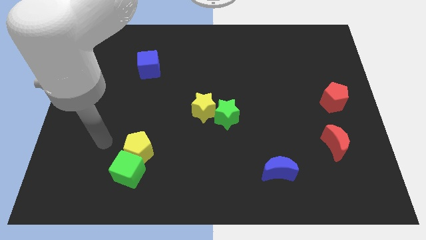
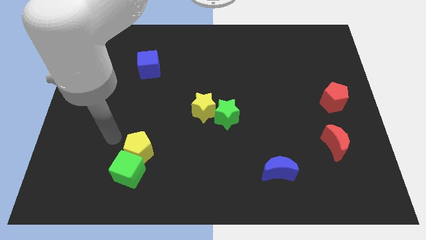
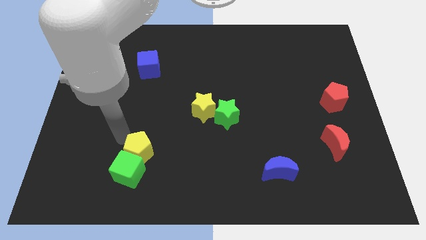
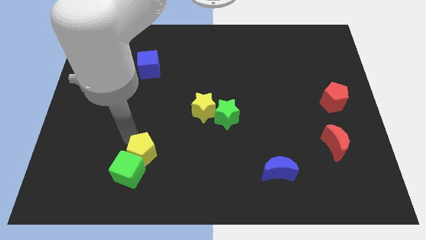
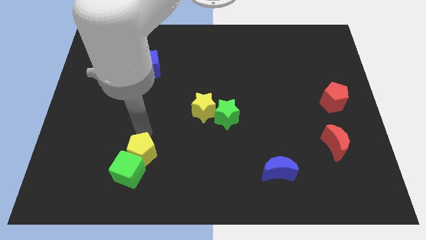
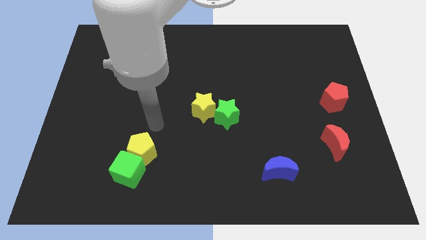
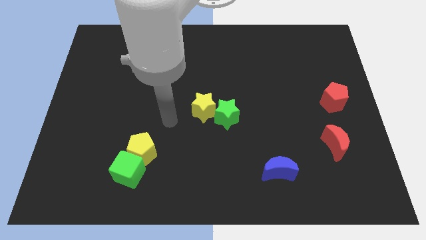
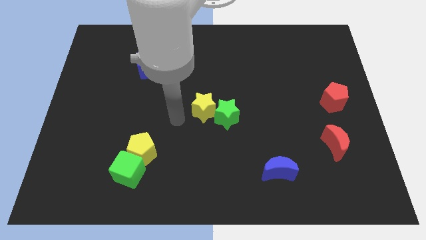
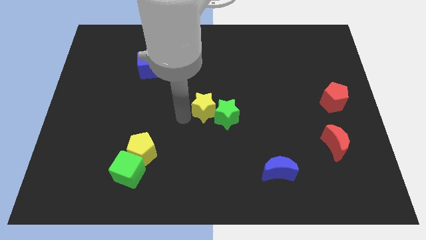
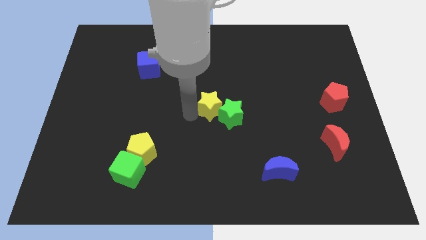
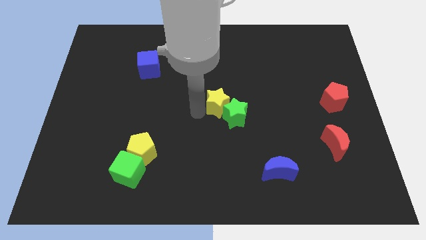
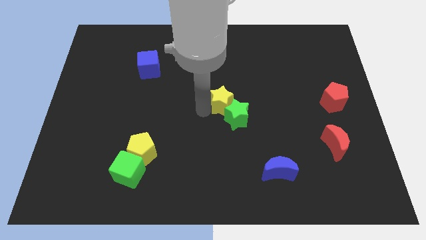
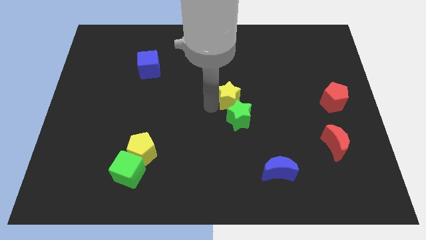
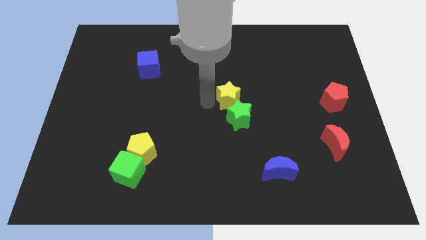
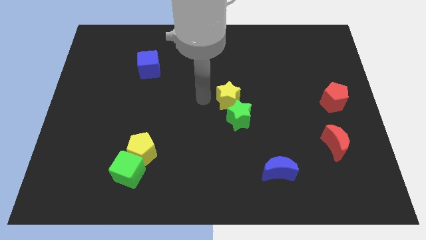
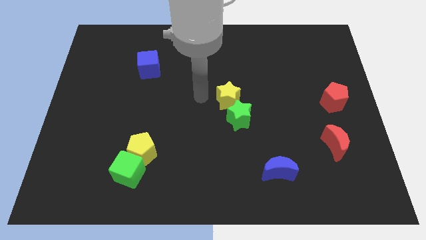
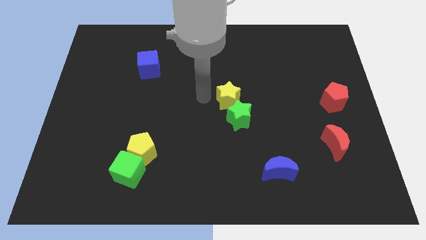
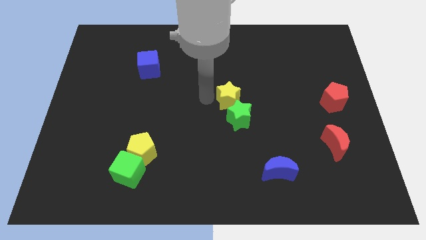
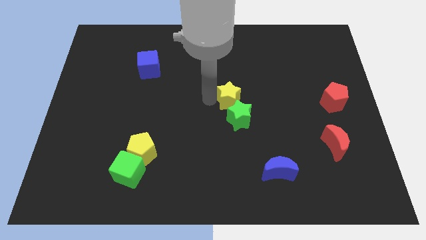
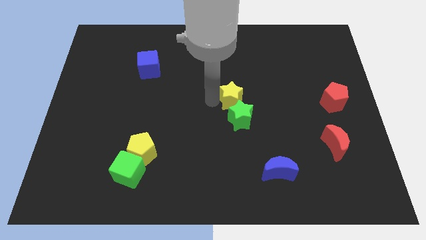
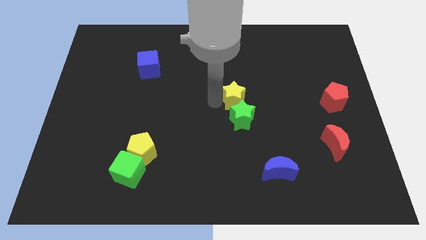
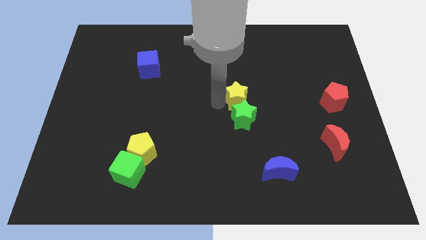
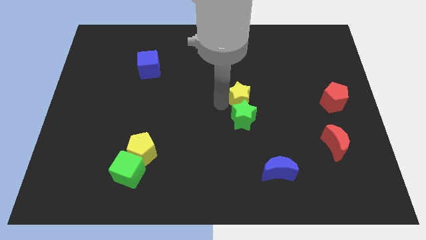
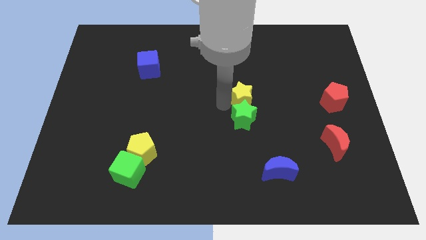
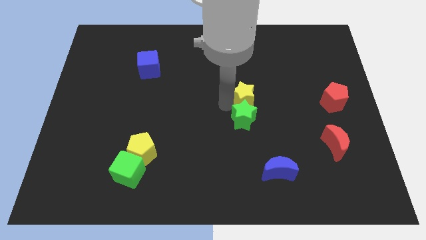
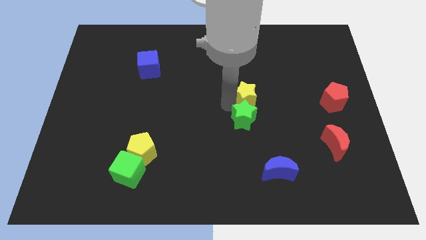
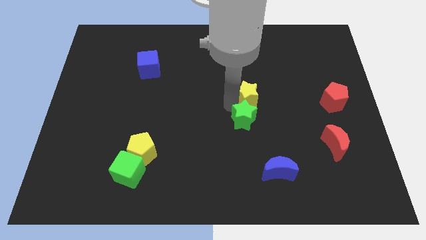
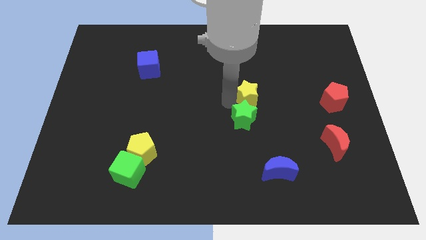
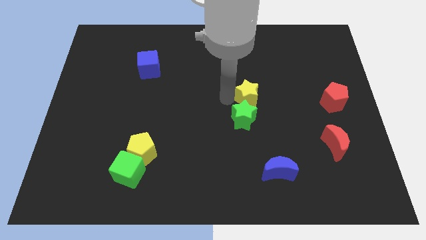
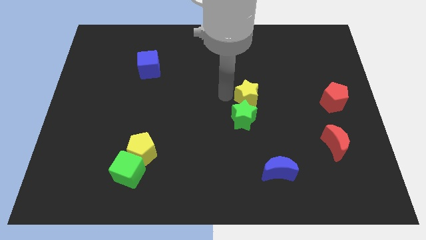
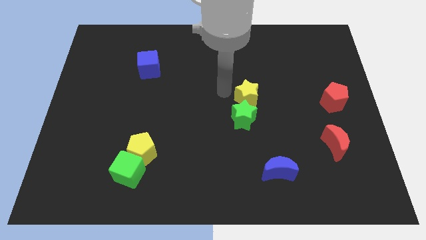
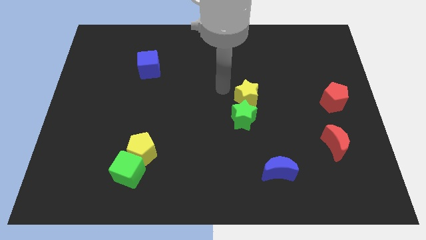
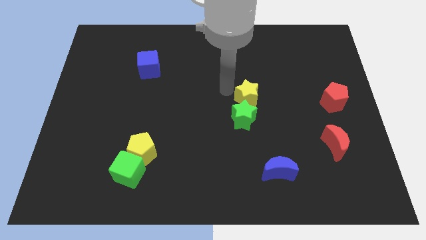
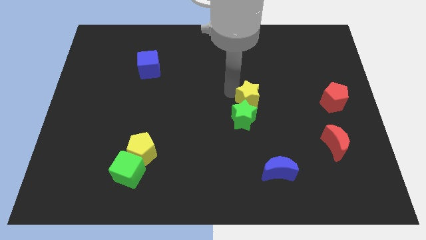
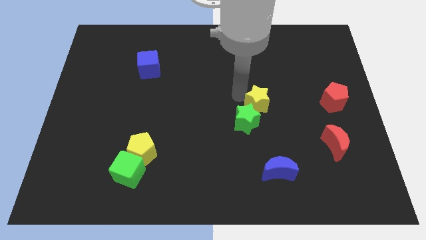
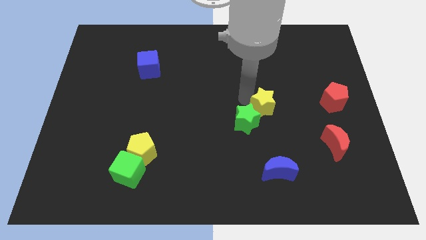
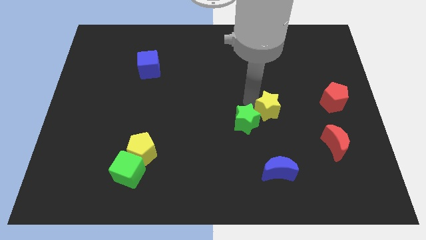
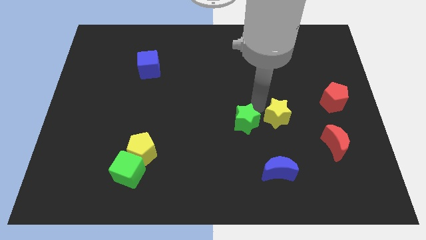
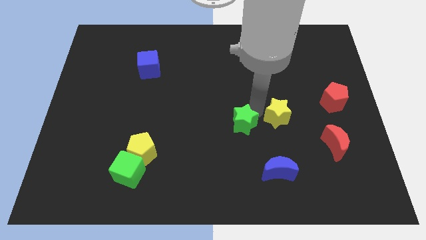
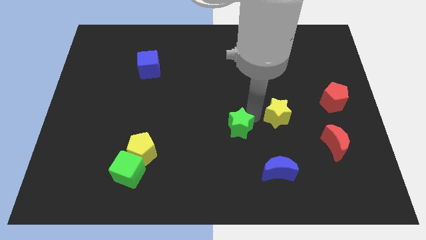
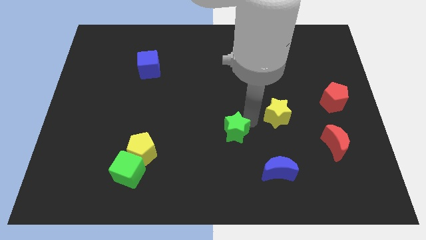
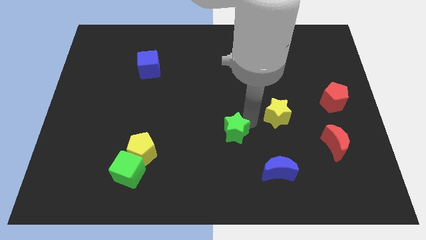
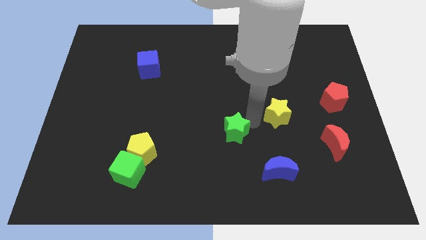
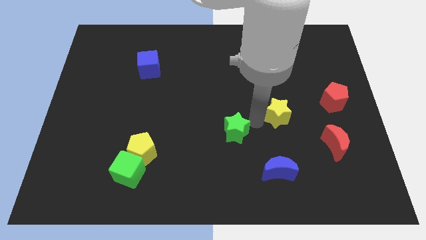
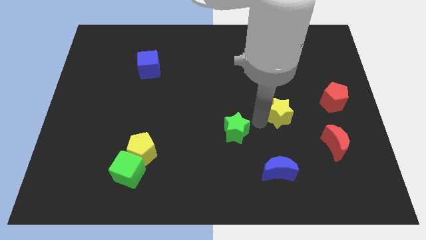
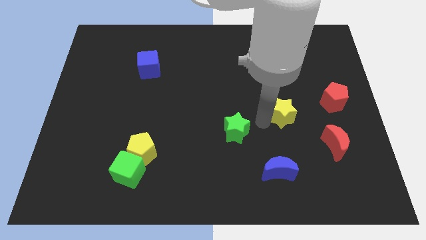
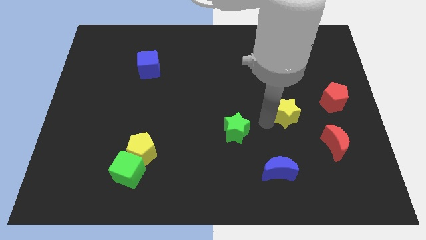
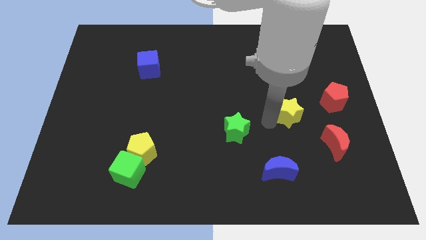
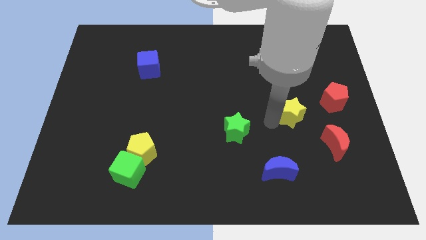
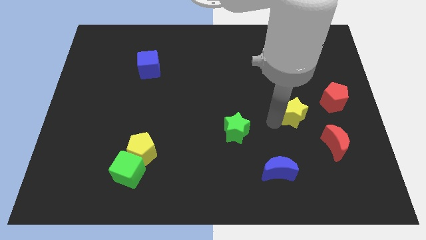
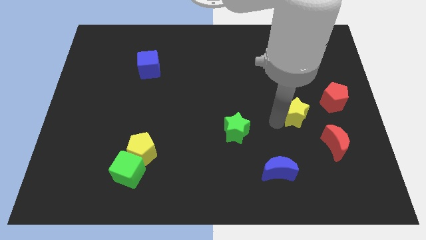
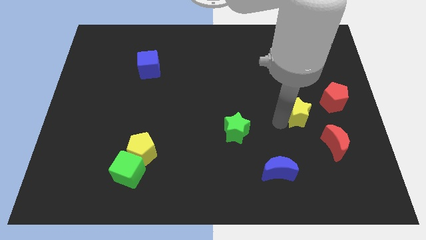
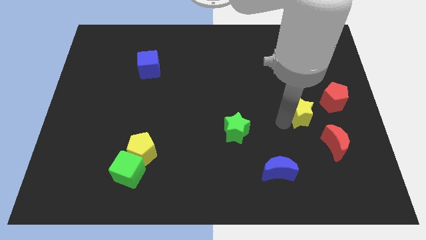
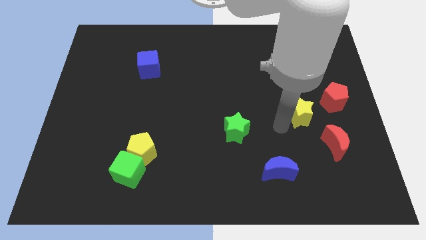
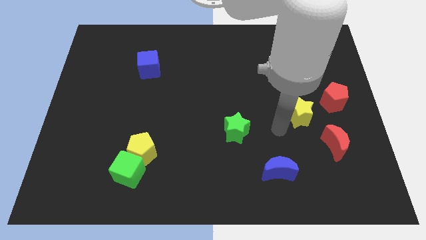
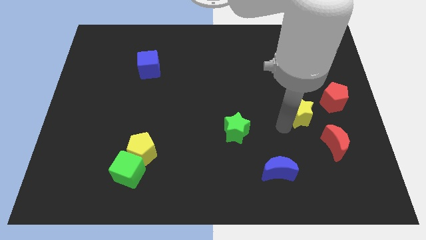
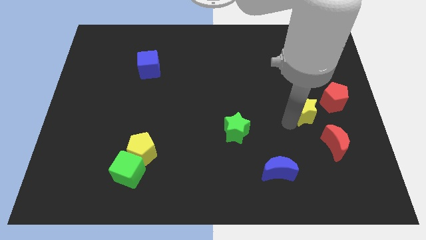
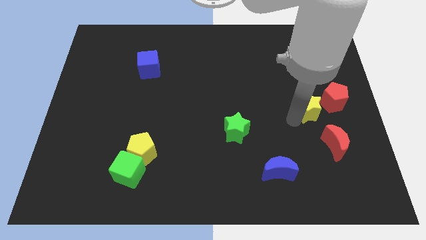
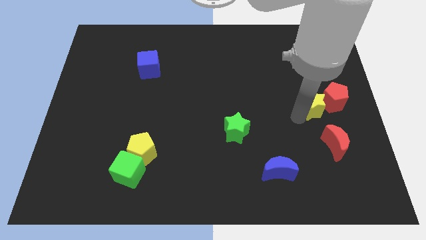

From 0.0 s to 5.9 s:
push the yellow star towards the red pentagon

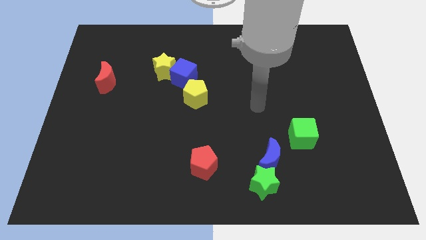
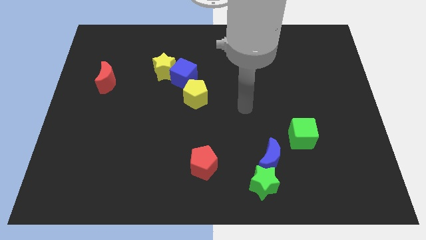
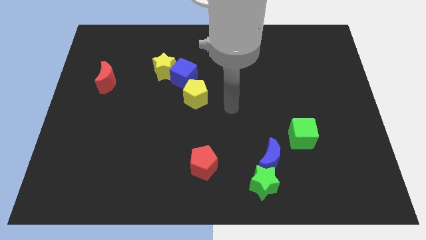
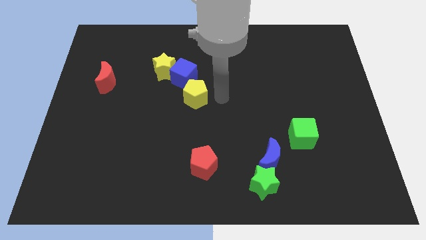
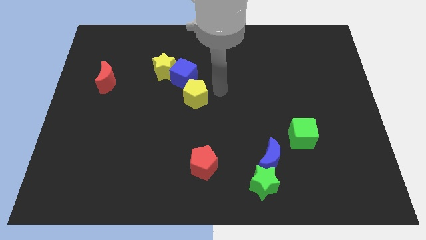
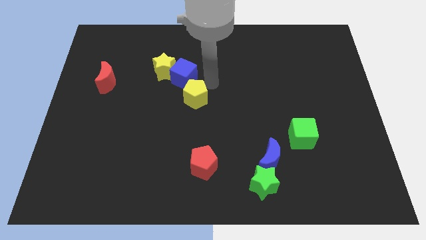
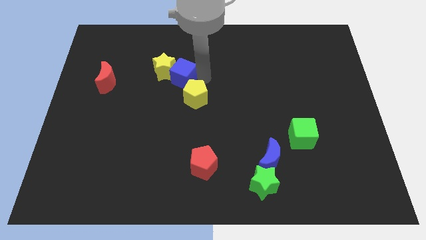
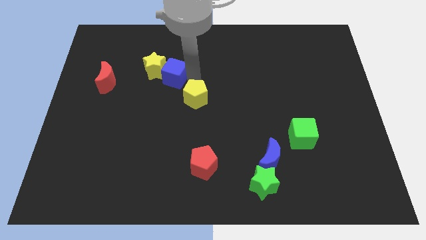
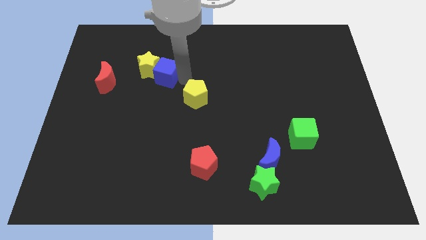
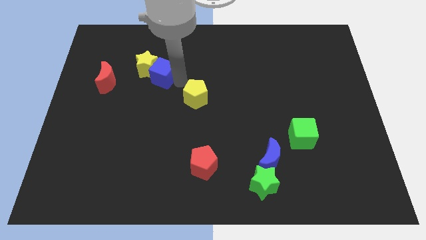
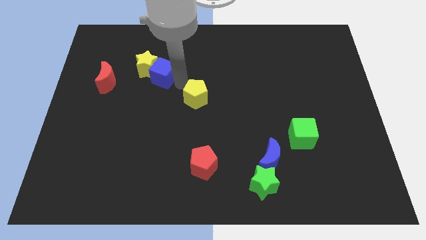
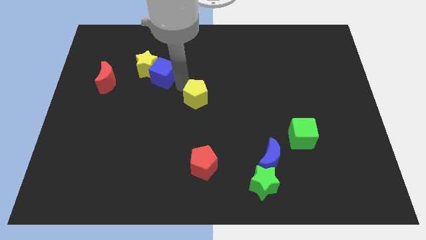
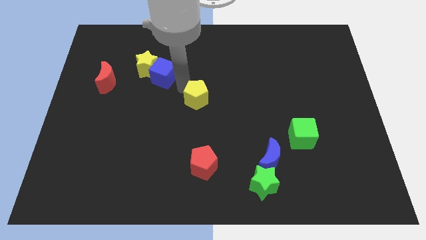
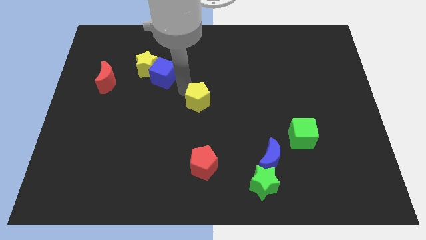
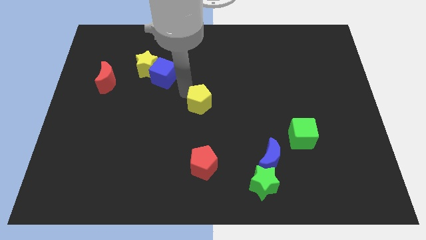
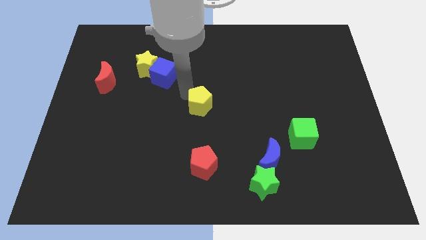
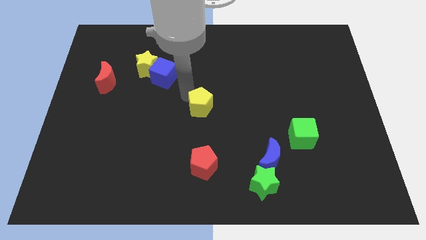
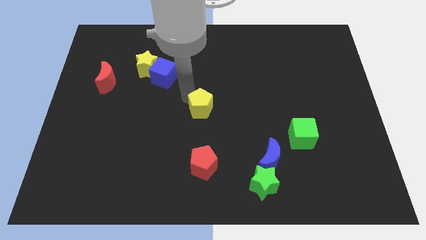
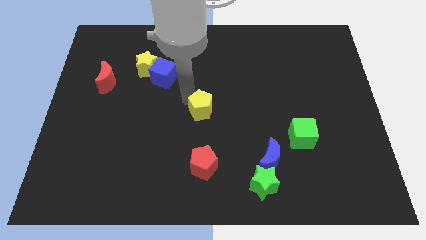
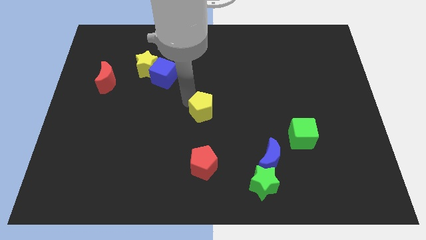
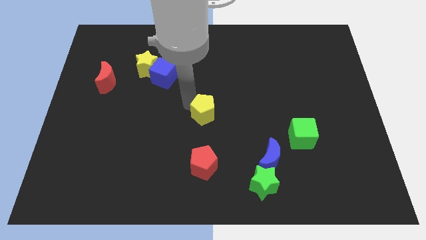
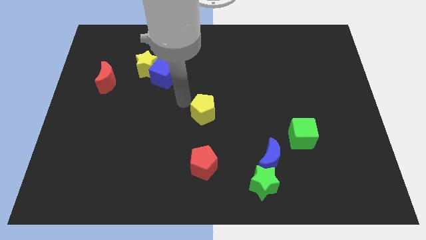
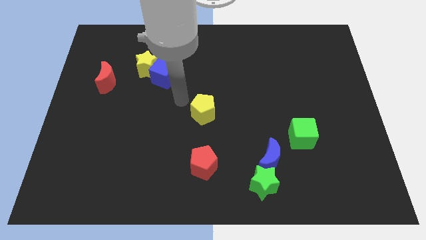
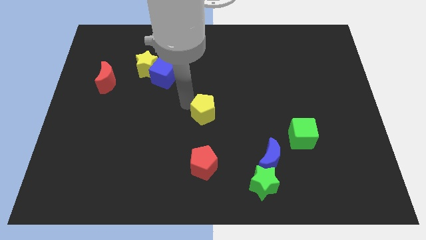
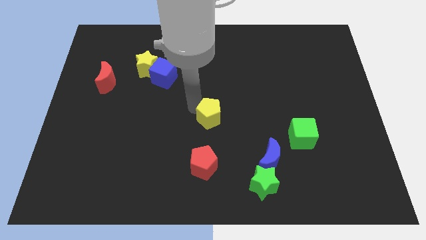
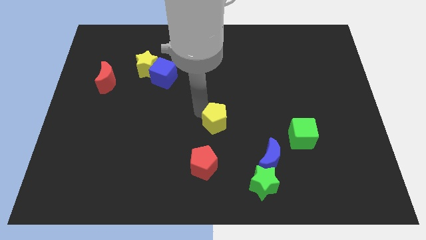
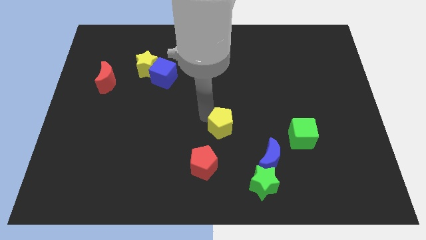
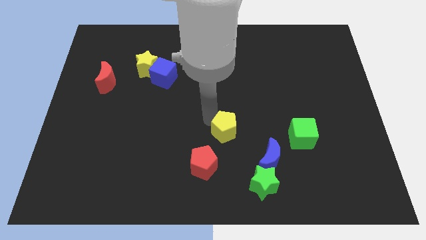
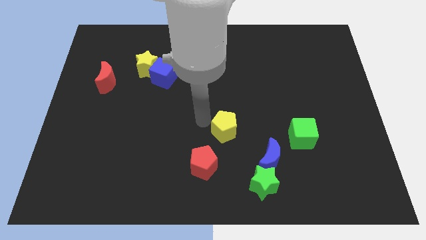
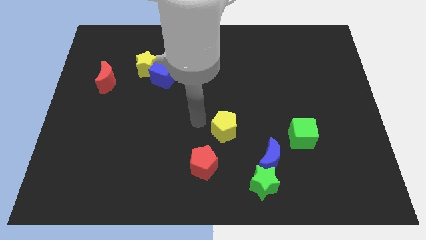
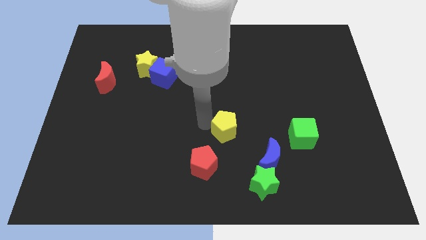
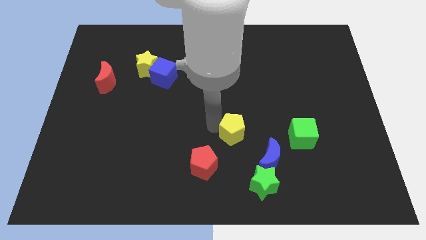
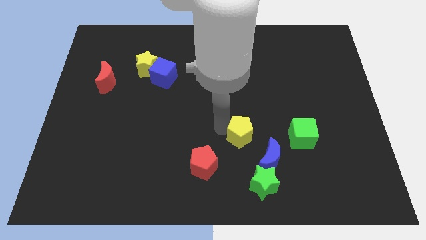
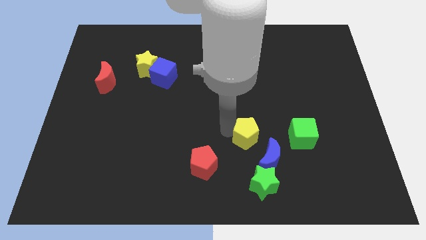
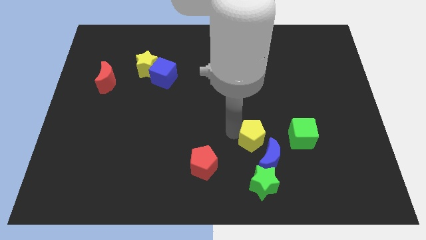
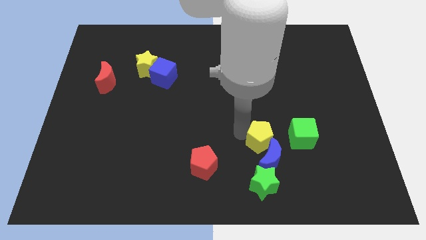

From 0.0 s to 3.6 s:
move the yellow pentagon next to the blue moon
